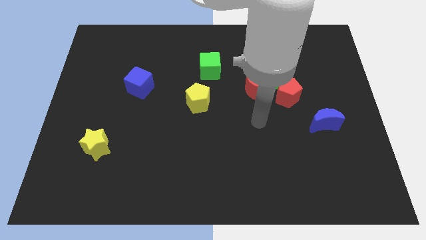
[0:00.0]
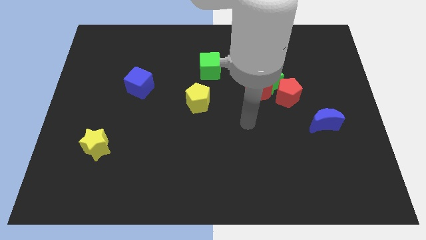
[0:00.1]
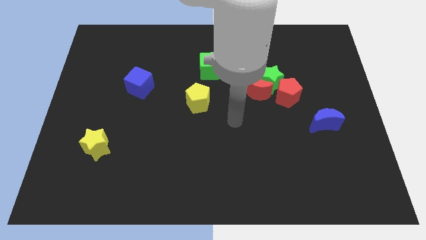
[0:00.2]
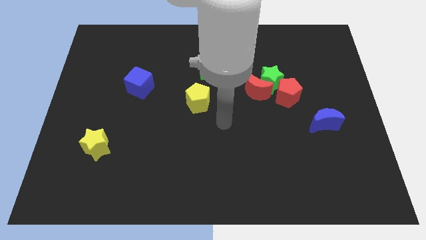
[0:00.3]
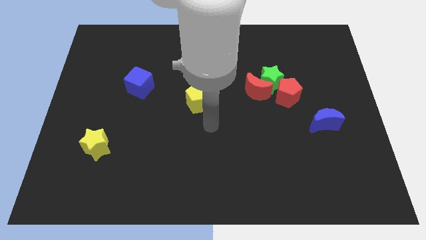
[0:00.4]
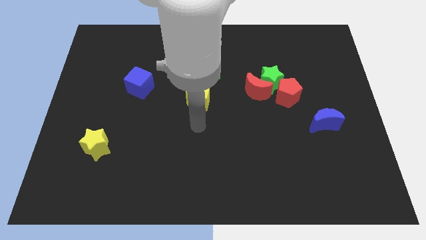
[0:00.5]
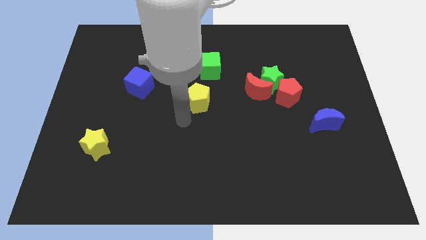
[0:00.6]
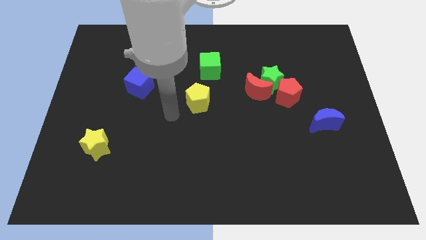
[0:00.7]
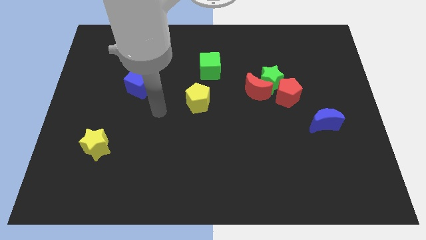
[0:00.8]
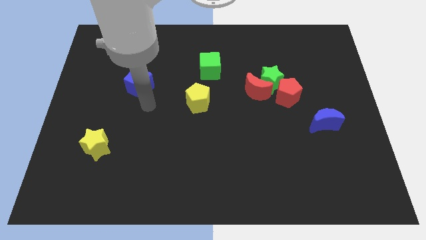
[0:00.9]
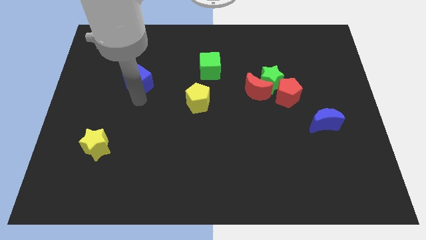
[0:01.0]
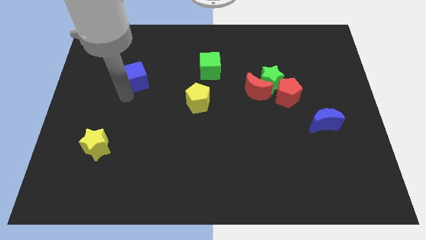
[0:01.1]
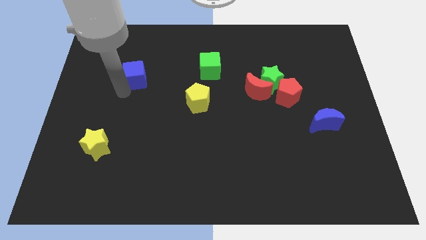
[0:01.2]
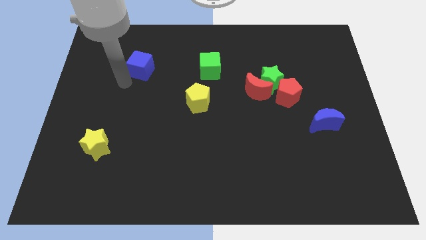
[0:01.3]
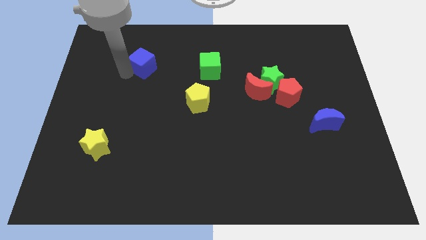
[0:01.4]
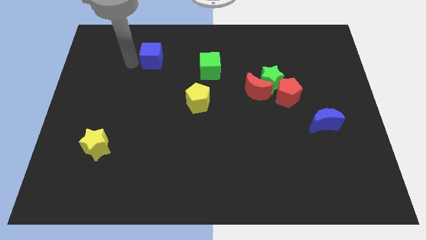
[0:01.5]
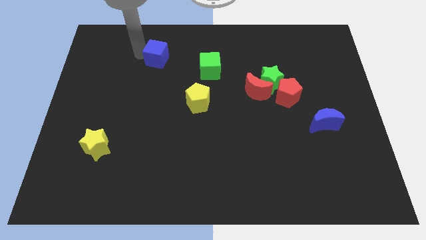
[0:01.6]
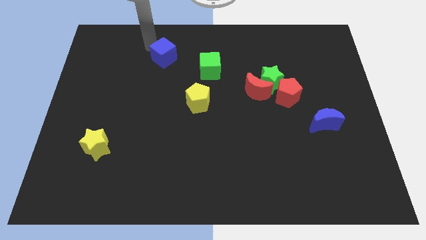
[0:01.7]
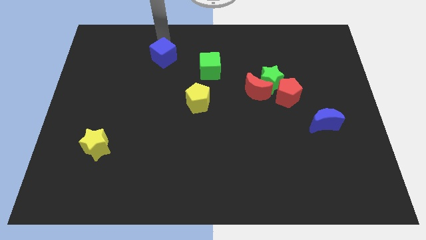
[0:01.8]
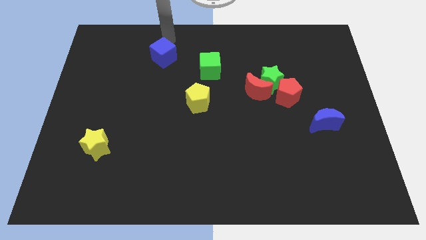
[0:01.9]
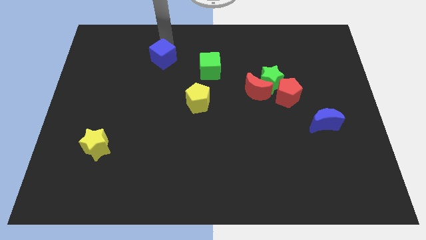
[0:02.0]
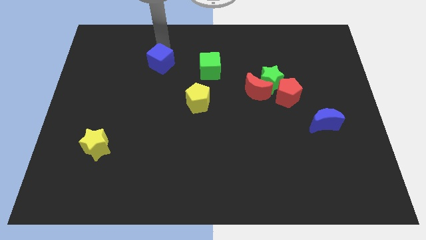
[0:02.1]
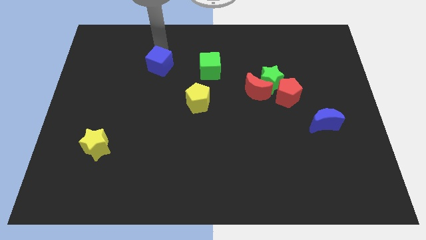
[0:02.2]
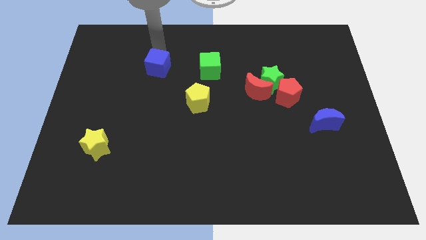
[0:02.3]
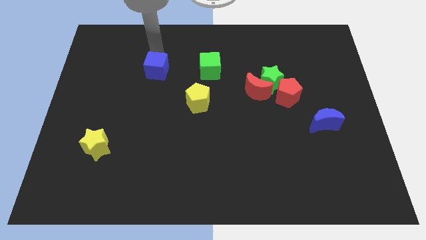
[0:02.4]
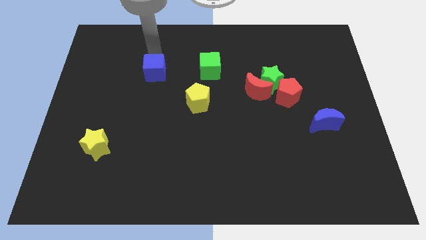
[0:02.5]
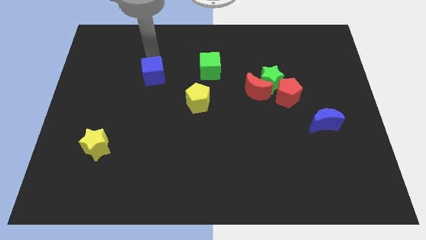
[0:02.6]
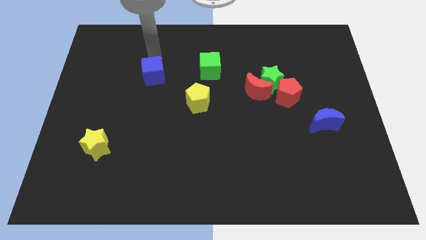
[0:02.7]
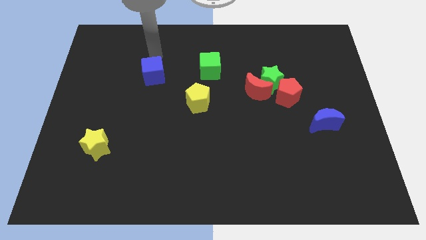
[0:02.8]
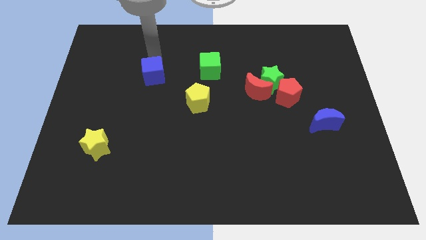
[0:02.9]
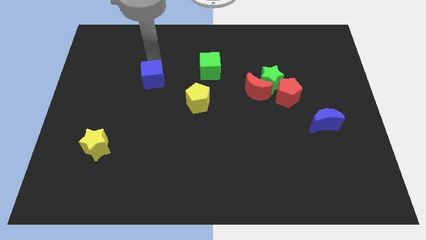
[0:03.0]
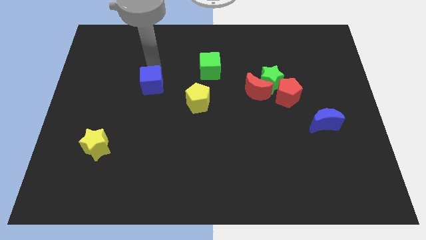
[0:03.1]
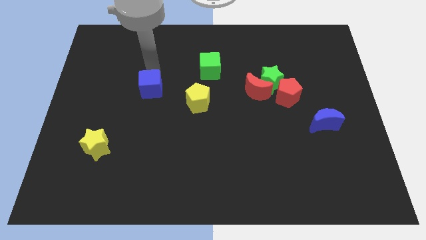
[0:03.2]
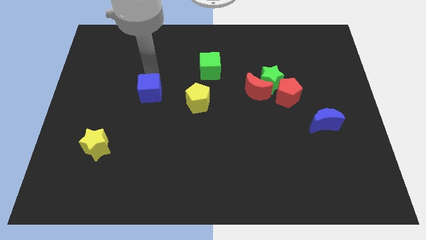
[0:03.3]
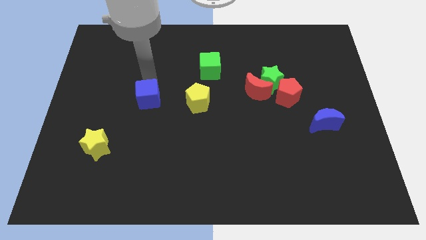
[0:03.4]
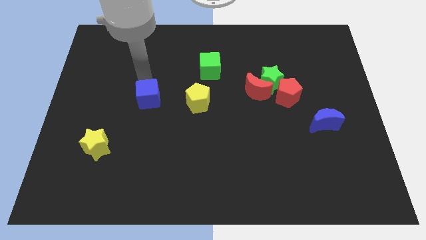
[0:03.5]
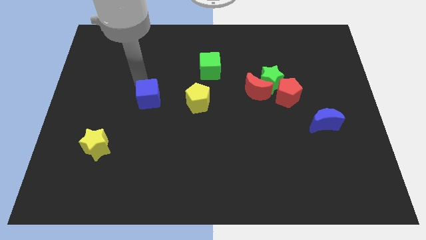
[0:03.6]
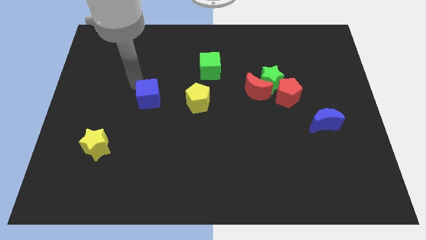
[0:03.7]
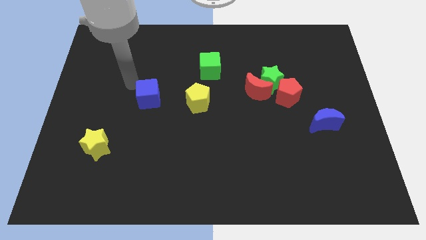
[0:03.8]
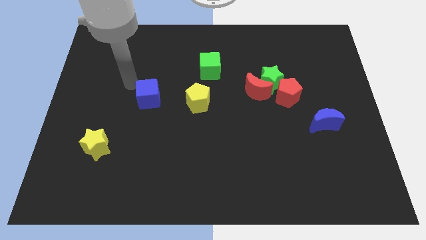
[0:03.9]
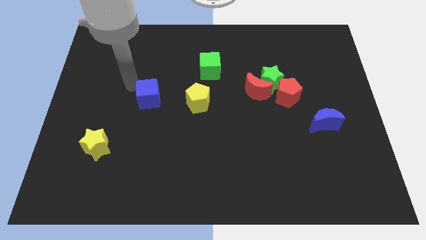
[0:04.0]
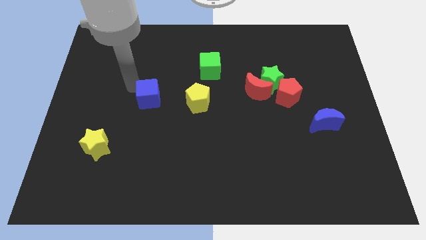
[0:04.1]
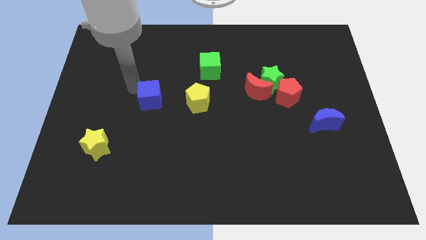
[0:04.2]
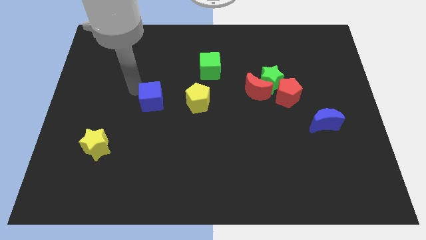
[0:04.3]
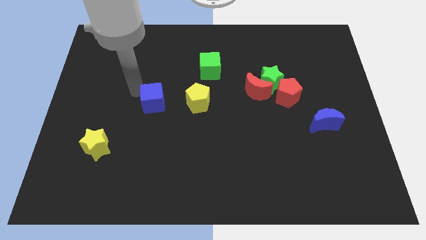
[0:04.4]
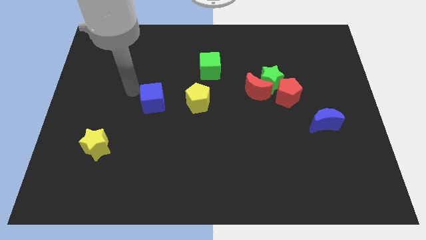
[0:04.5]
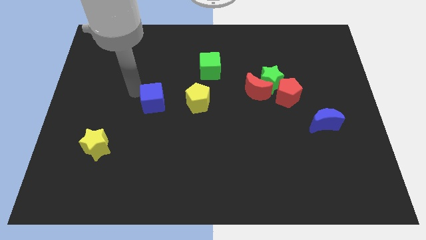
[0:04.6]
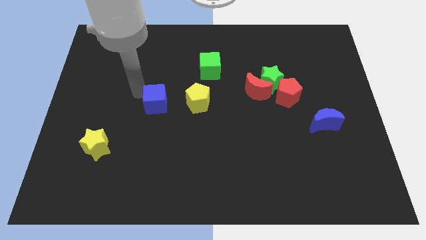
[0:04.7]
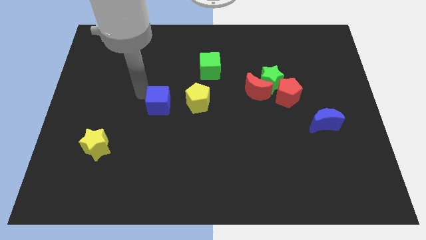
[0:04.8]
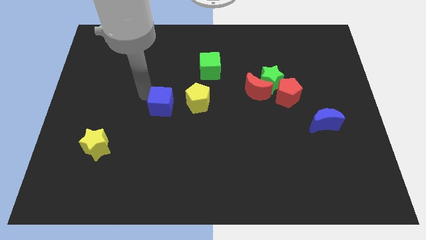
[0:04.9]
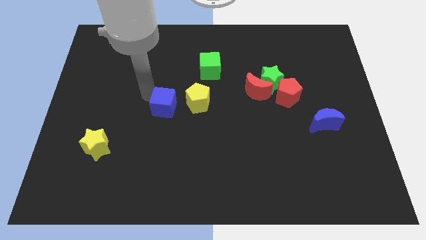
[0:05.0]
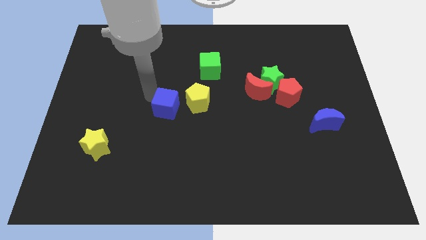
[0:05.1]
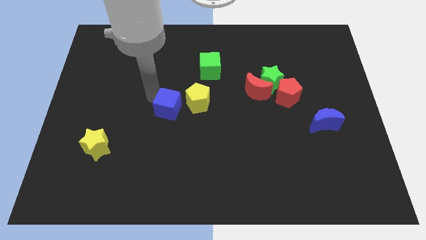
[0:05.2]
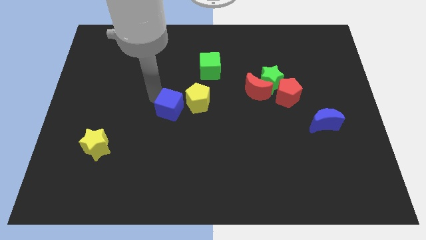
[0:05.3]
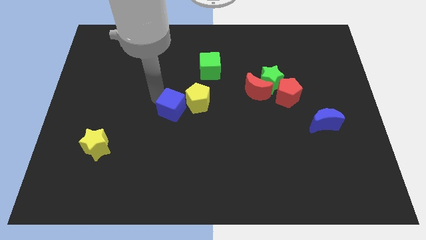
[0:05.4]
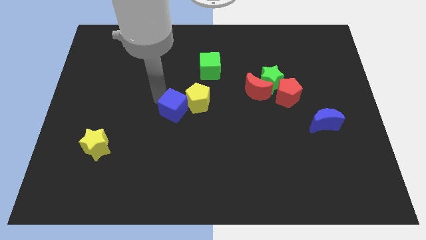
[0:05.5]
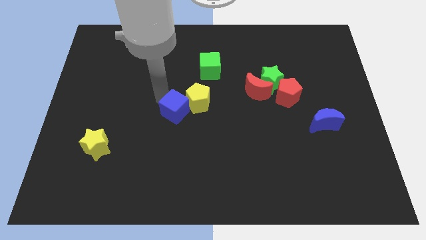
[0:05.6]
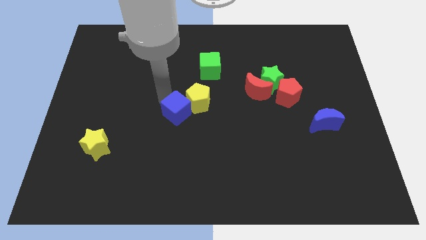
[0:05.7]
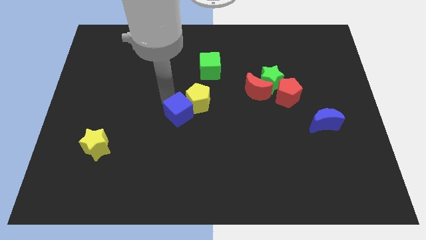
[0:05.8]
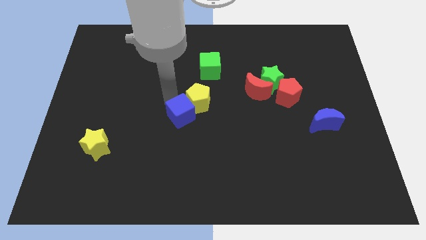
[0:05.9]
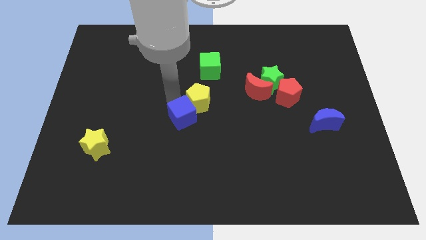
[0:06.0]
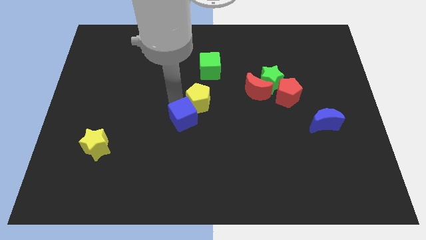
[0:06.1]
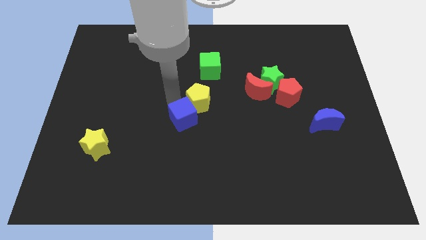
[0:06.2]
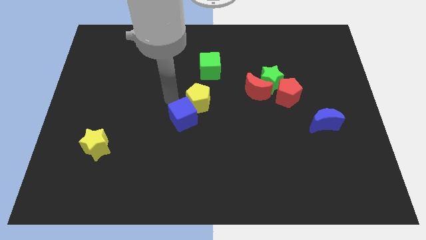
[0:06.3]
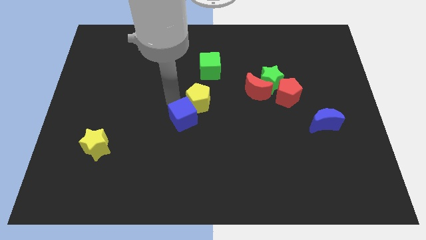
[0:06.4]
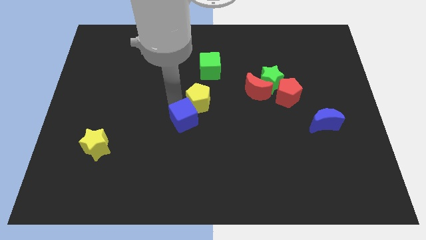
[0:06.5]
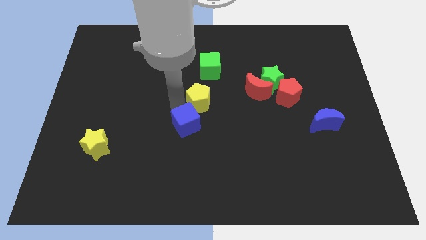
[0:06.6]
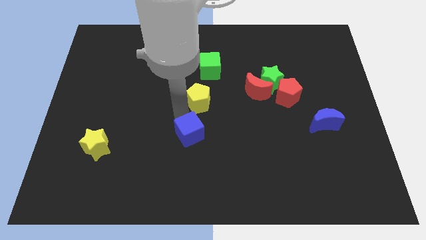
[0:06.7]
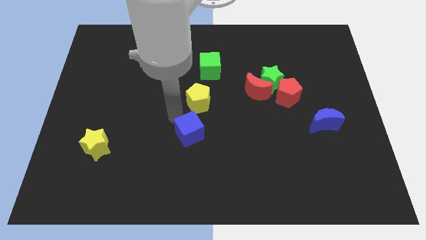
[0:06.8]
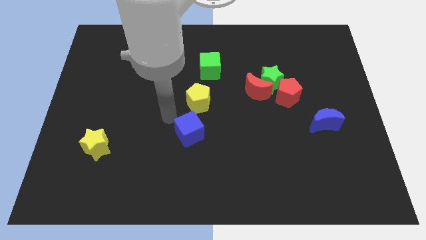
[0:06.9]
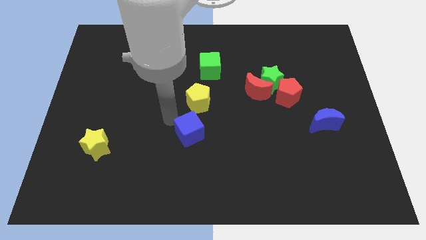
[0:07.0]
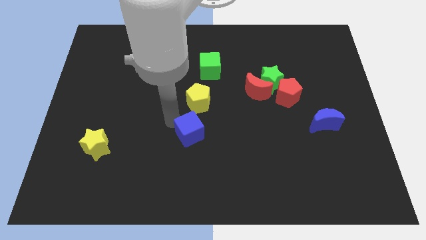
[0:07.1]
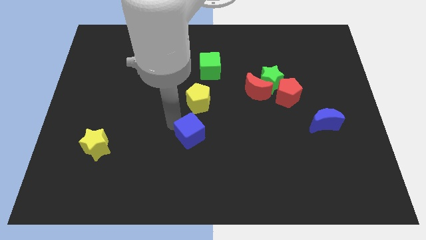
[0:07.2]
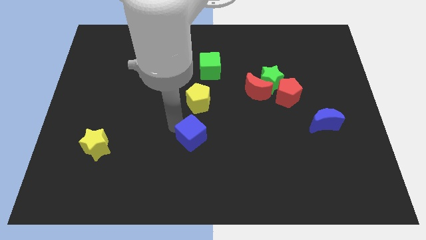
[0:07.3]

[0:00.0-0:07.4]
move the blue cube down and right

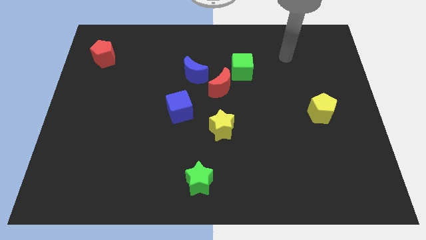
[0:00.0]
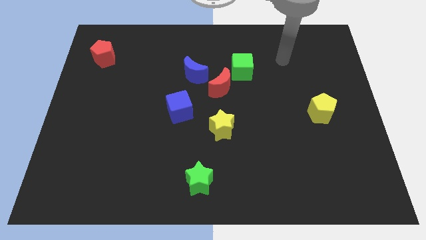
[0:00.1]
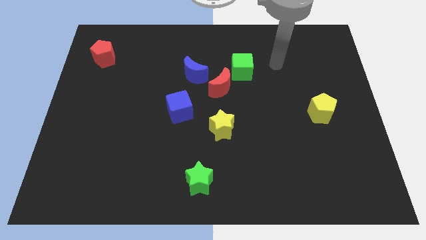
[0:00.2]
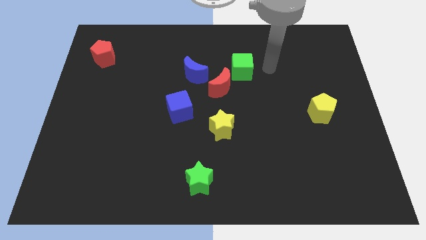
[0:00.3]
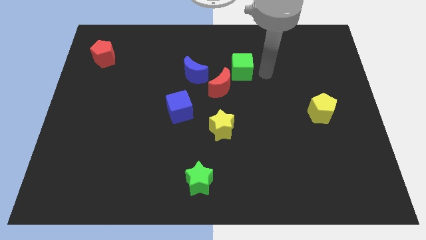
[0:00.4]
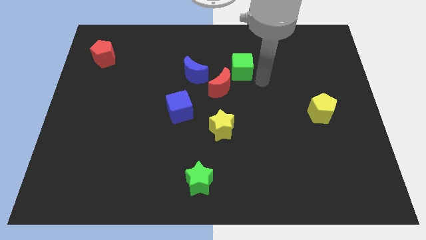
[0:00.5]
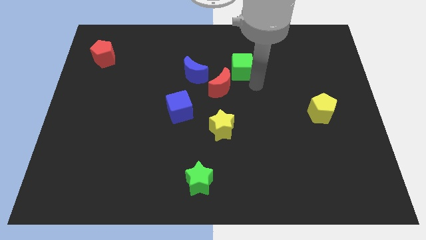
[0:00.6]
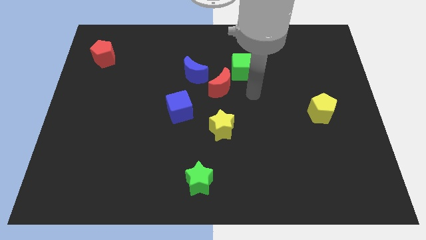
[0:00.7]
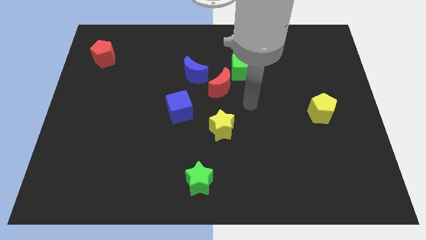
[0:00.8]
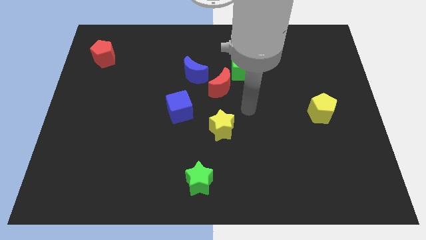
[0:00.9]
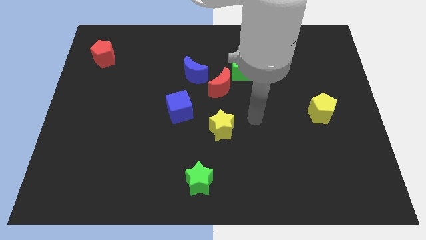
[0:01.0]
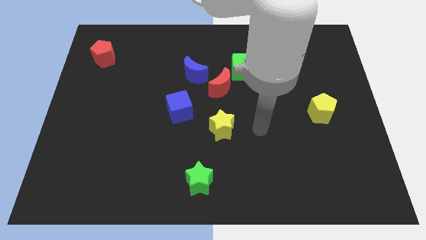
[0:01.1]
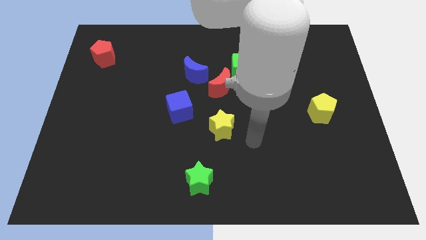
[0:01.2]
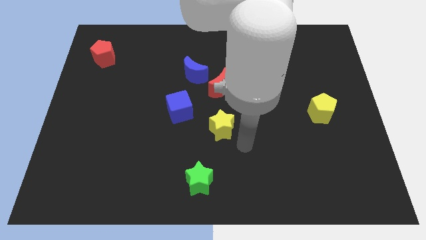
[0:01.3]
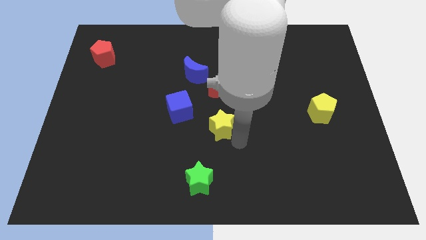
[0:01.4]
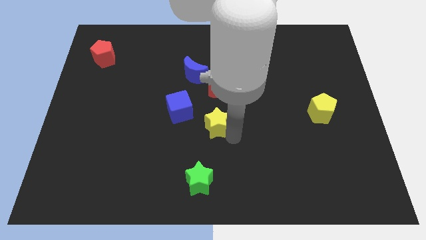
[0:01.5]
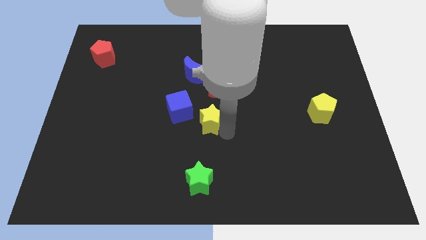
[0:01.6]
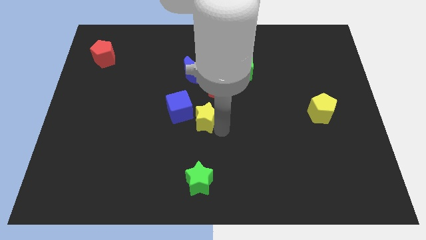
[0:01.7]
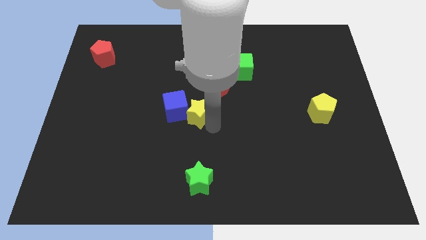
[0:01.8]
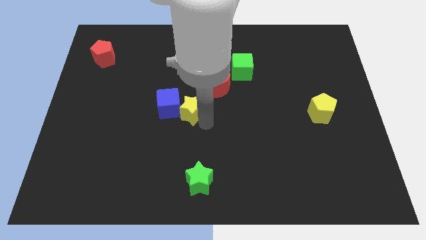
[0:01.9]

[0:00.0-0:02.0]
move the yellow star somewhat diagonally upwards and left
